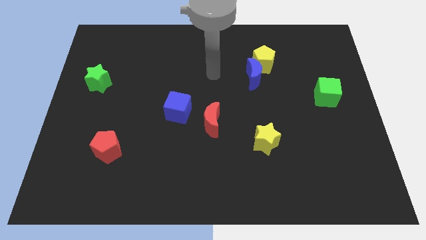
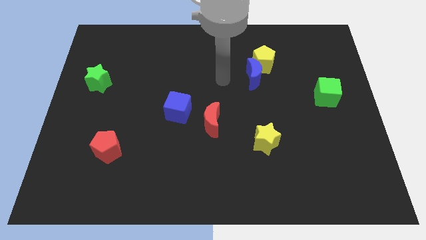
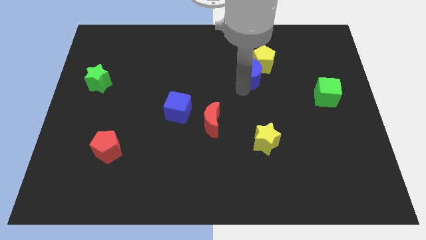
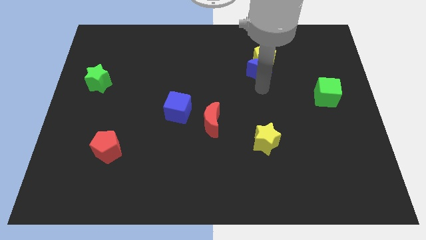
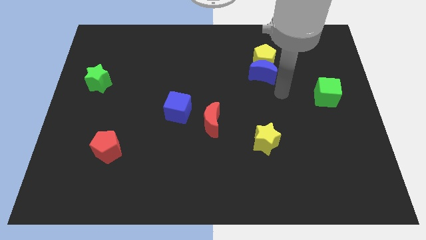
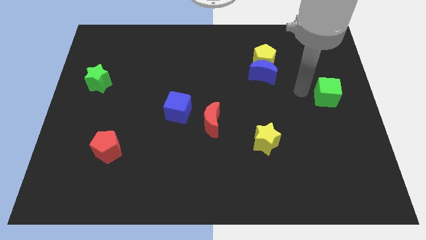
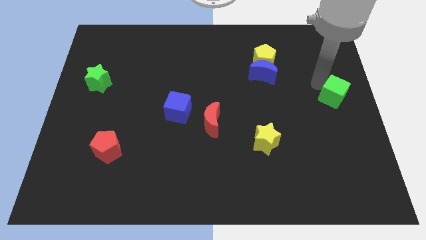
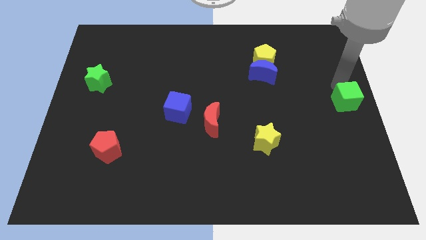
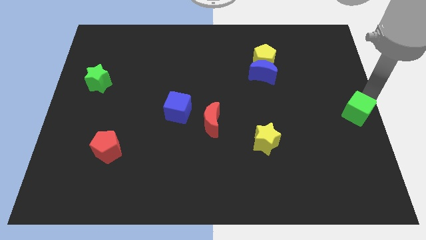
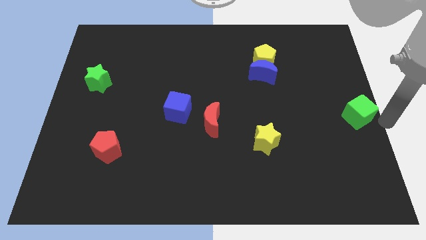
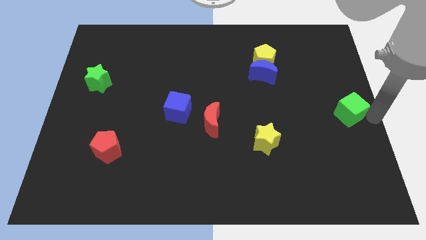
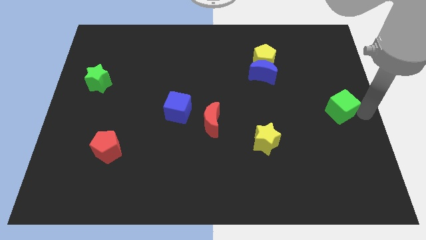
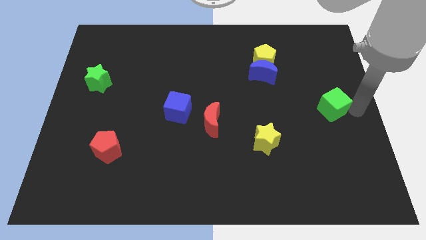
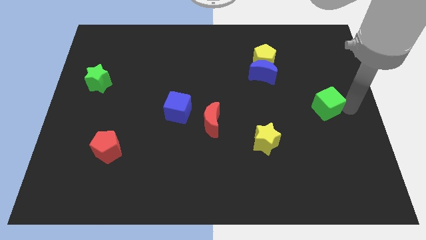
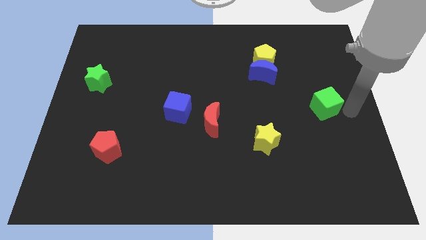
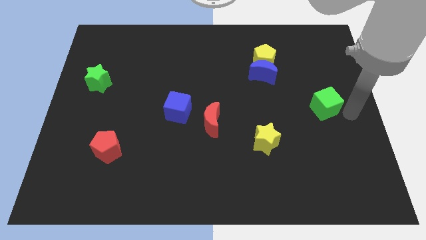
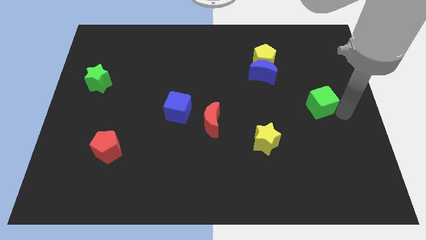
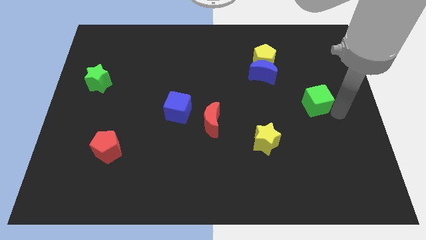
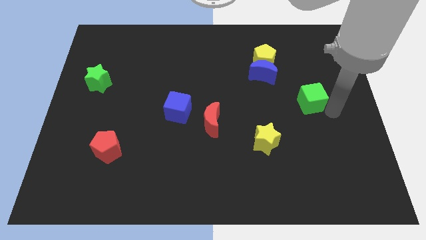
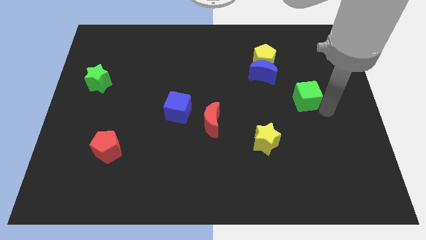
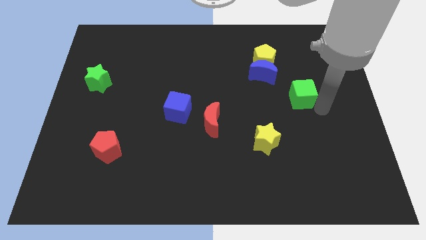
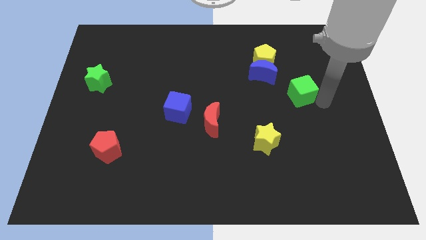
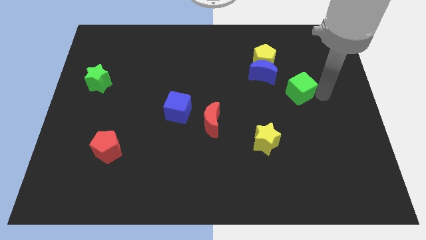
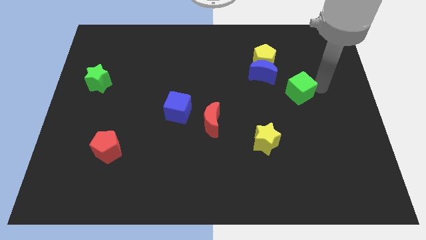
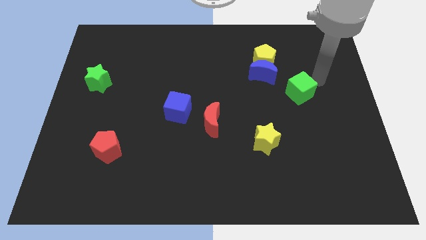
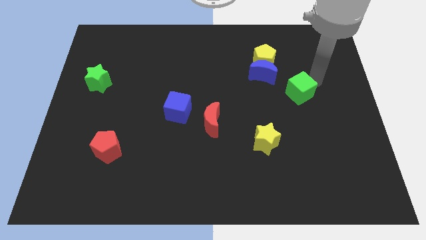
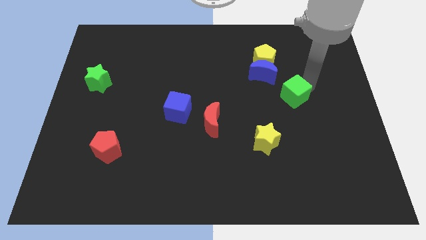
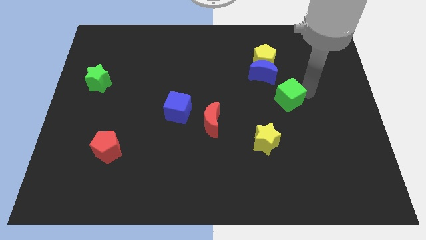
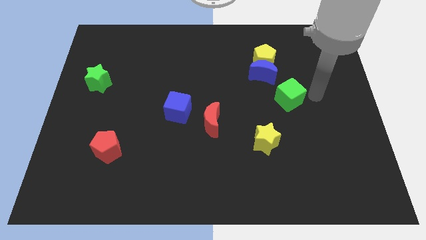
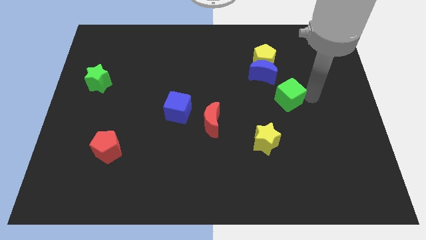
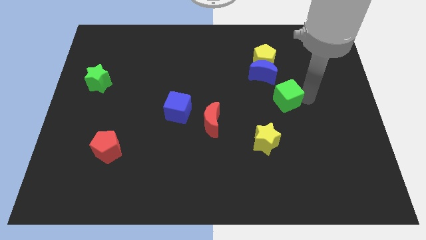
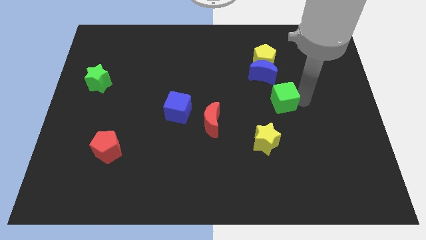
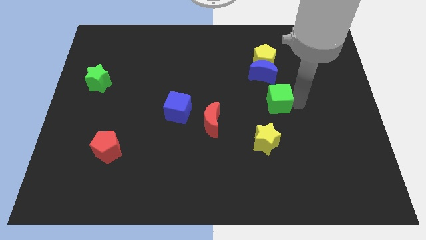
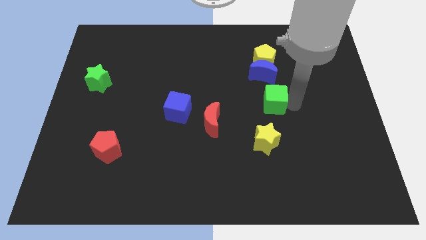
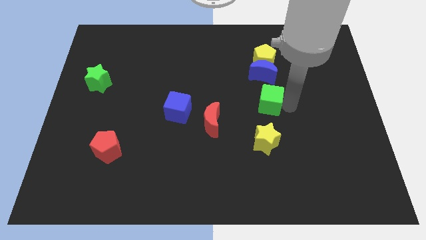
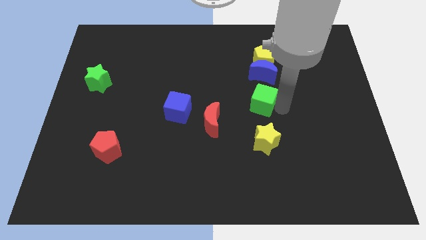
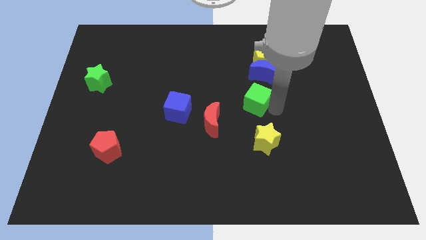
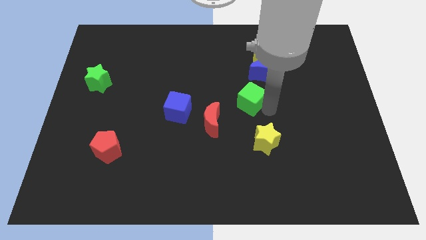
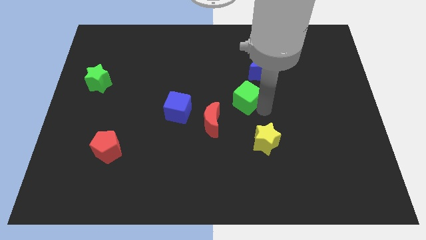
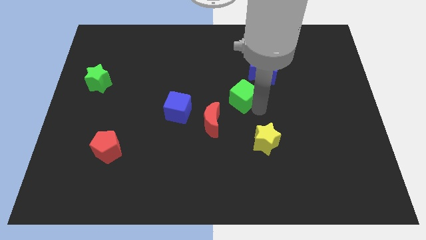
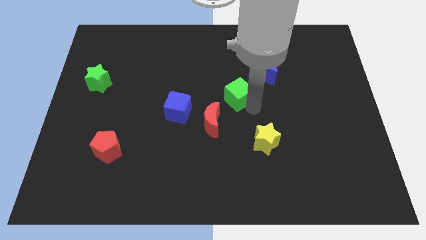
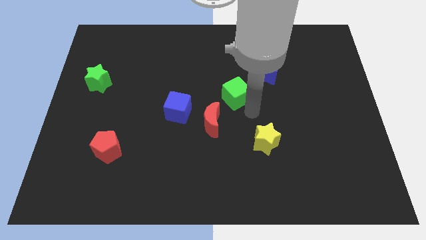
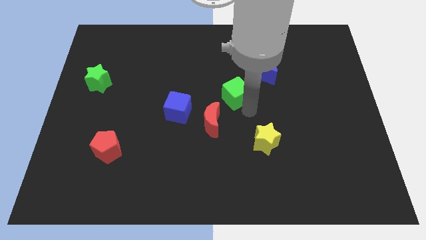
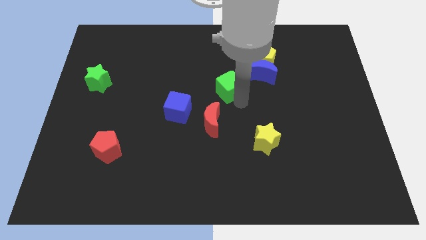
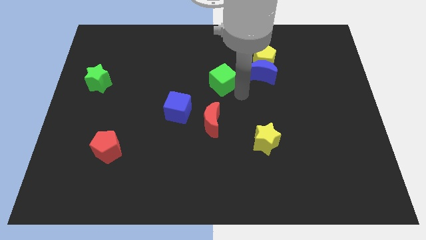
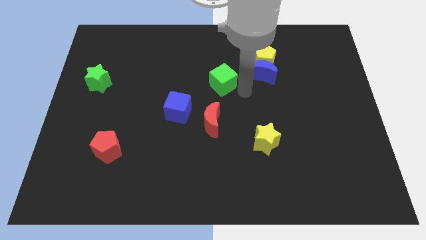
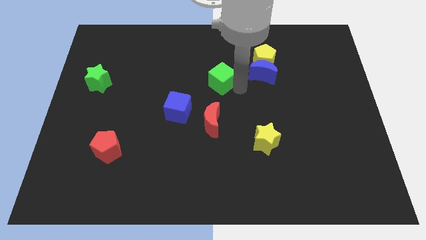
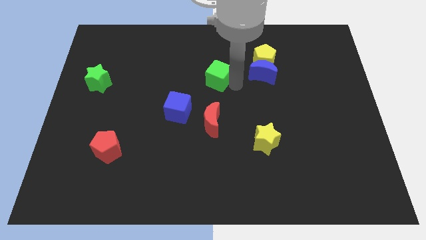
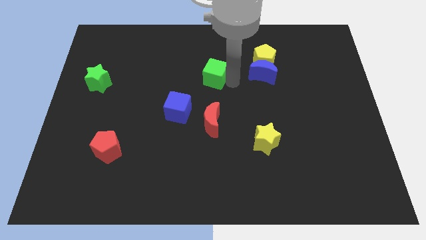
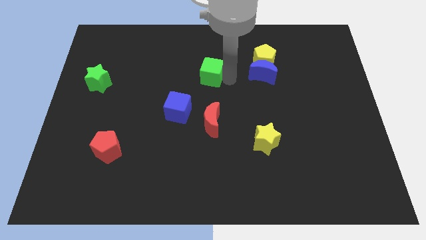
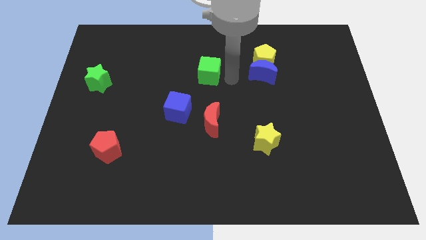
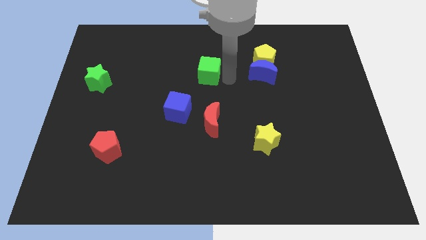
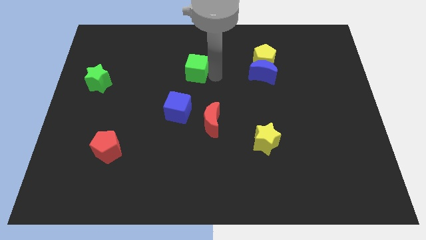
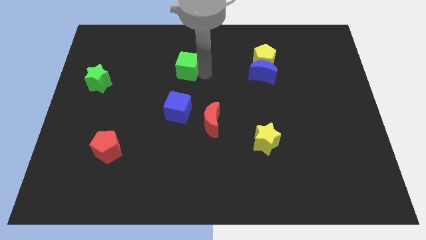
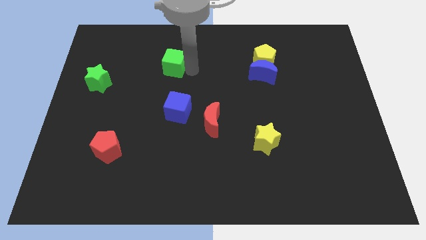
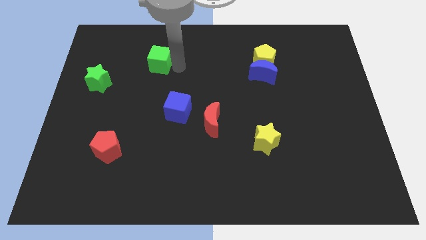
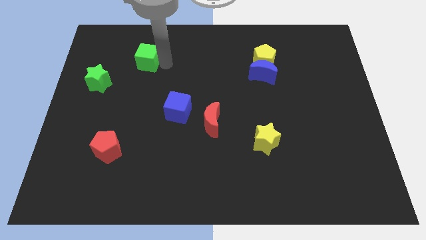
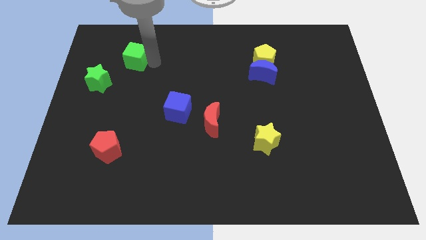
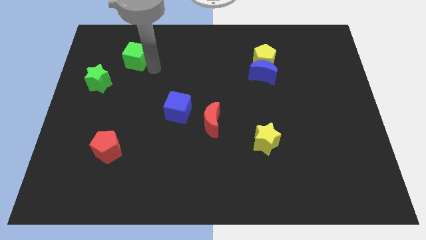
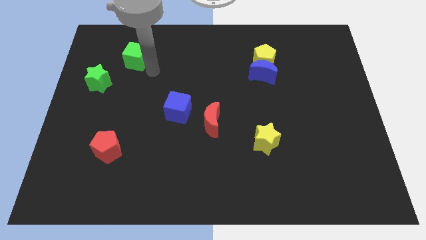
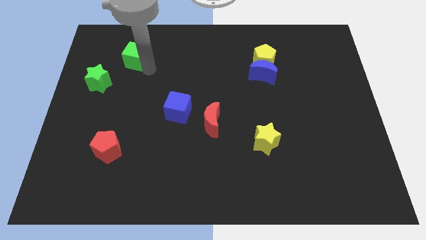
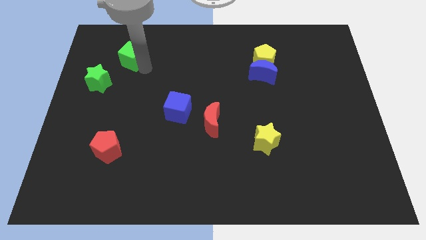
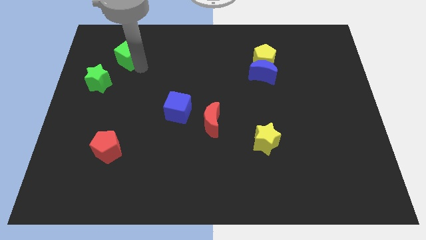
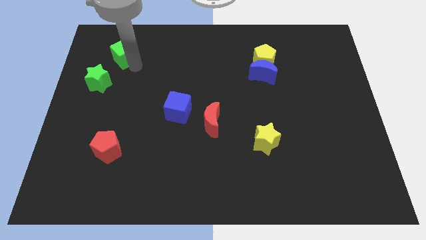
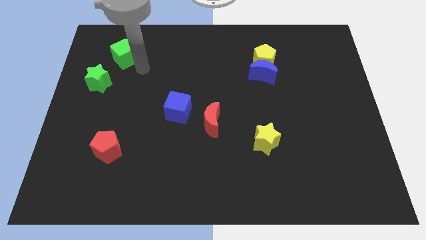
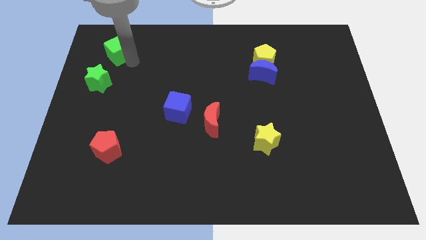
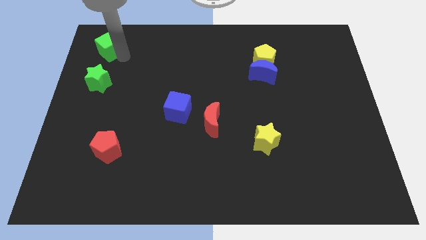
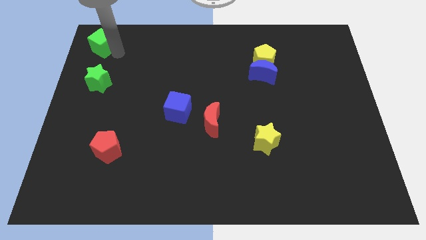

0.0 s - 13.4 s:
slide the green cube to the top left corner

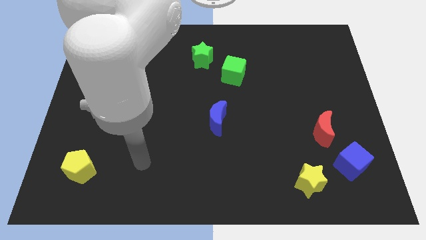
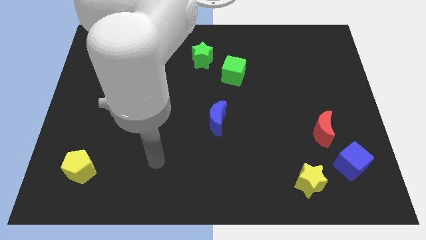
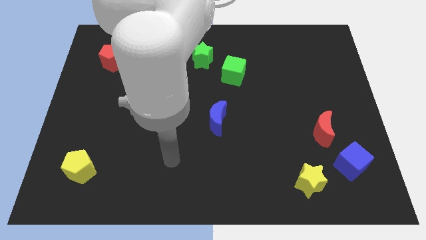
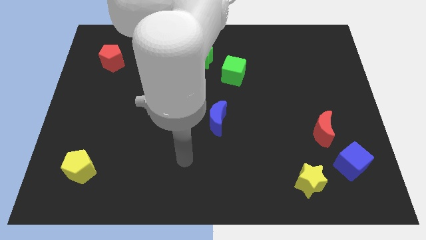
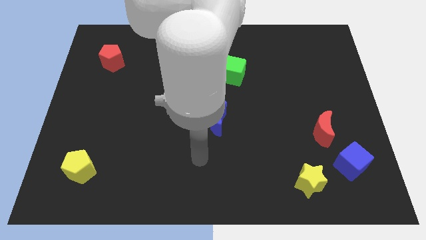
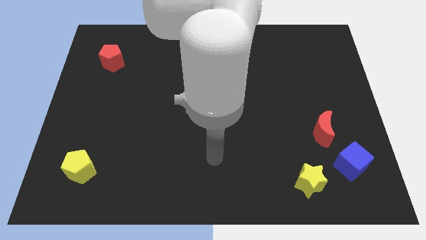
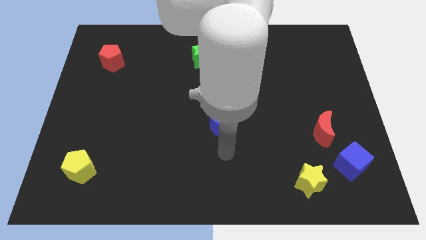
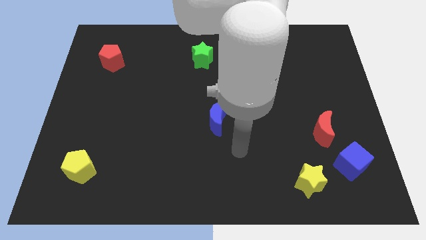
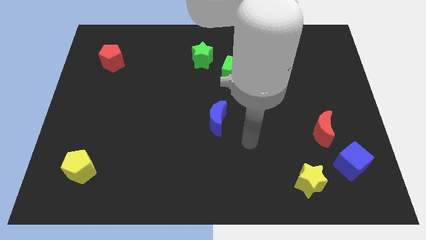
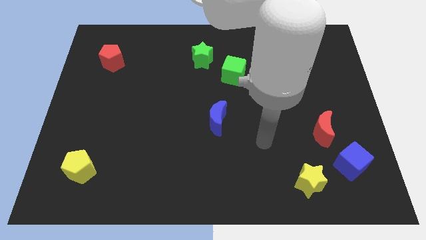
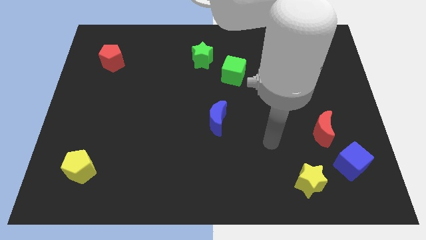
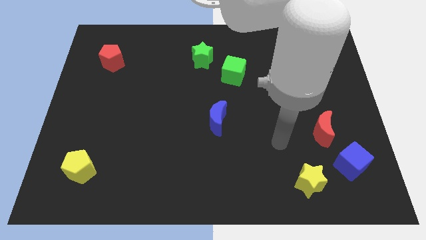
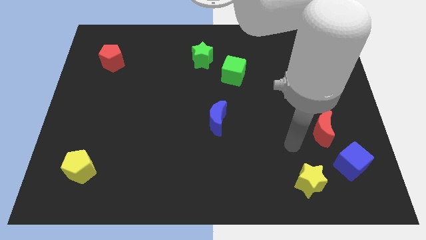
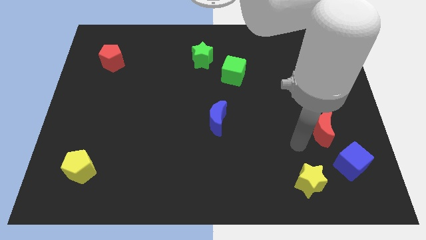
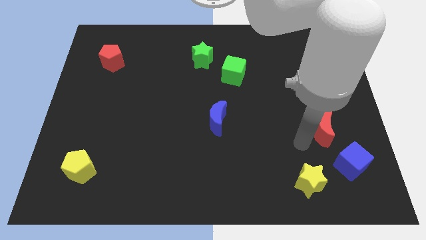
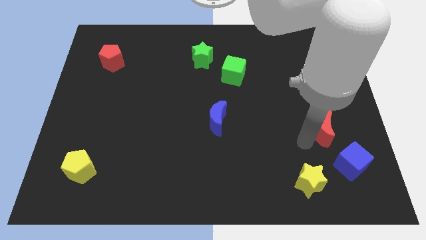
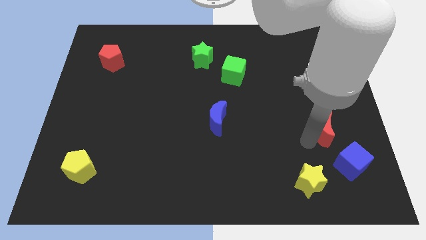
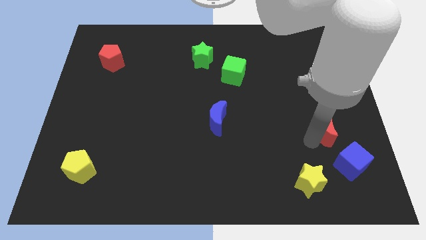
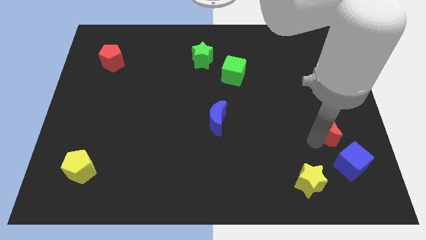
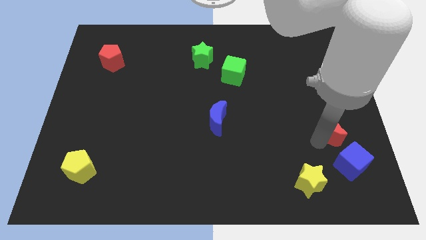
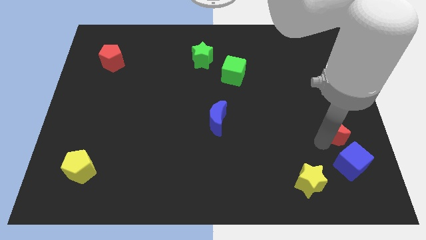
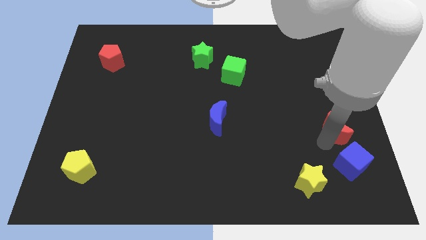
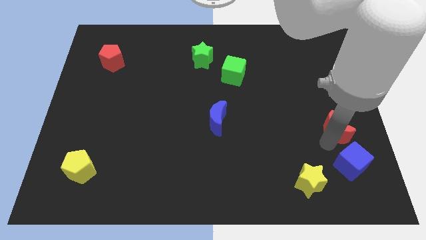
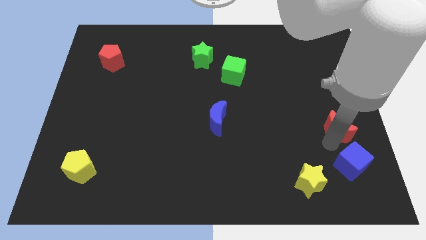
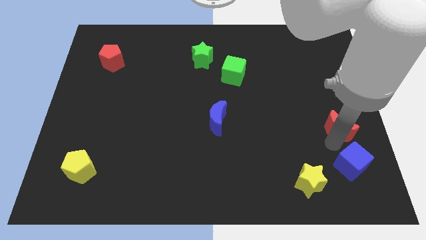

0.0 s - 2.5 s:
push the red moon to the right side
